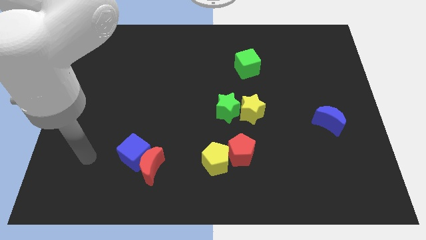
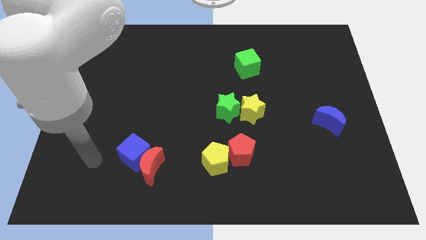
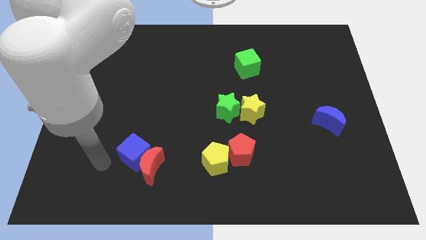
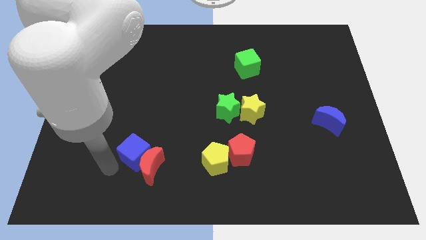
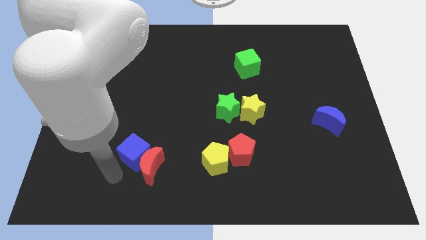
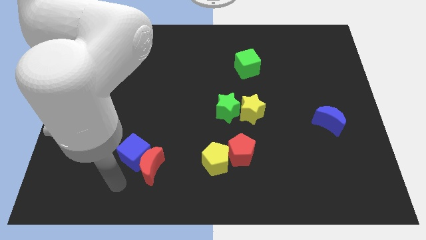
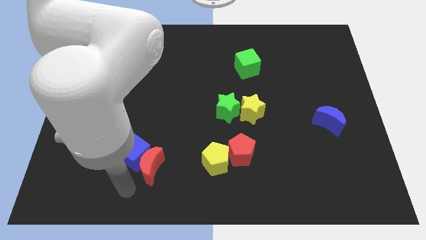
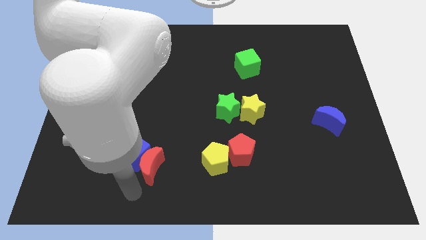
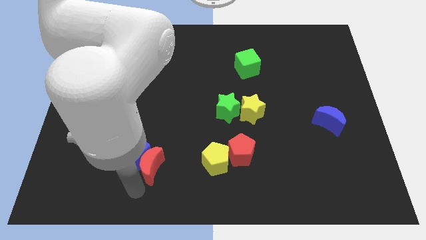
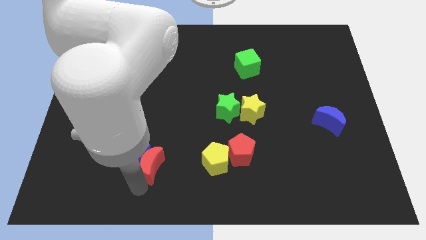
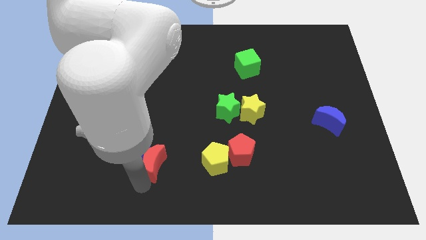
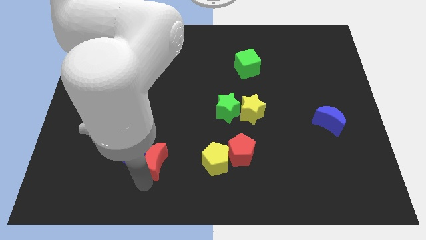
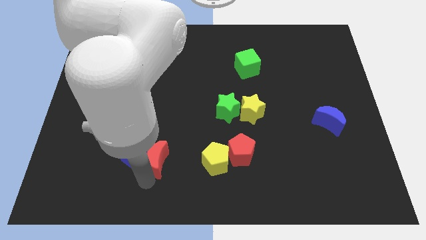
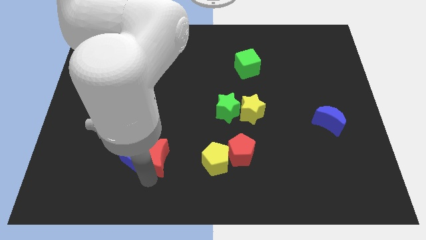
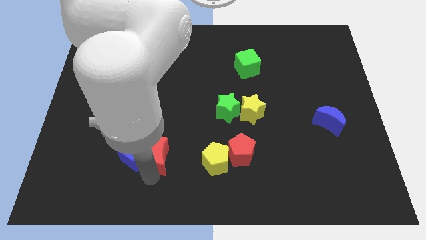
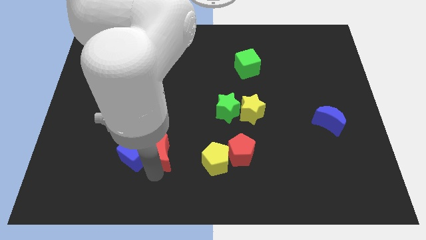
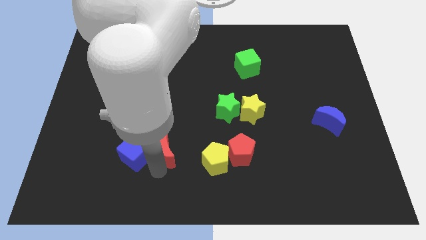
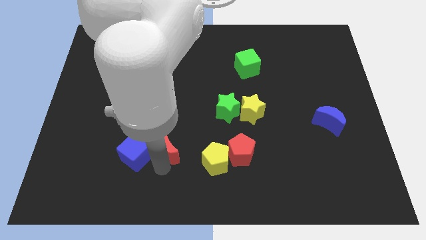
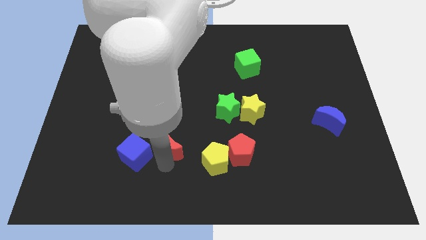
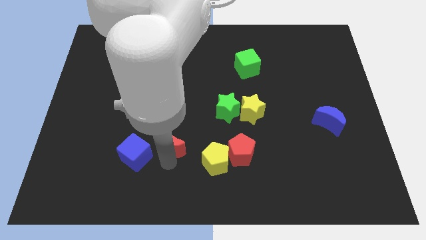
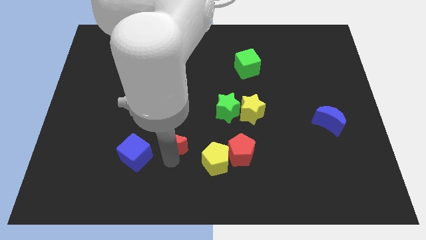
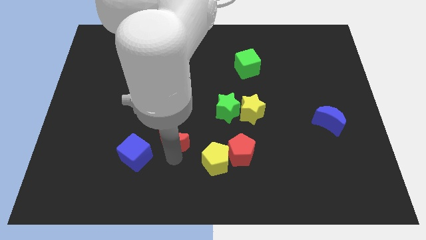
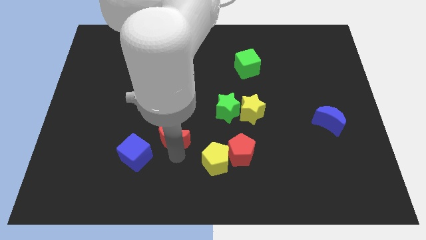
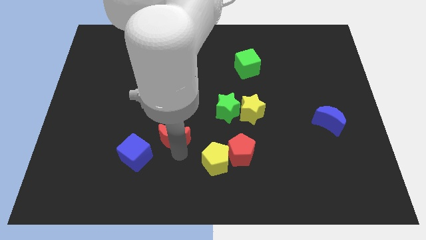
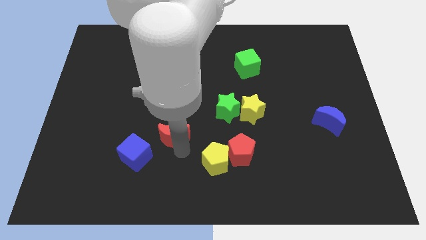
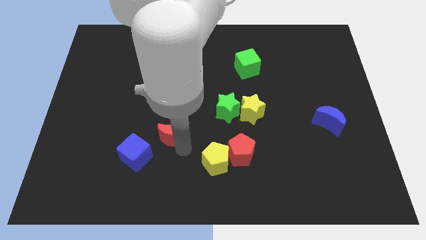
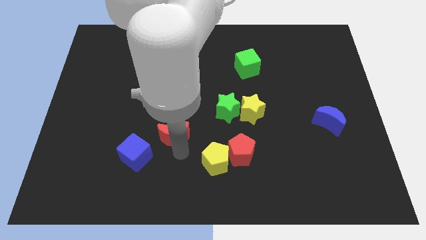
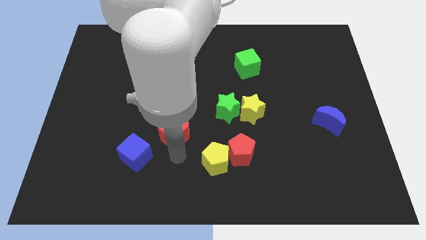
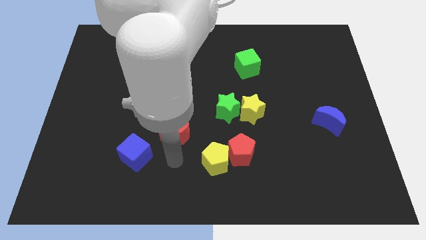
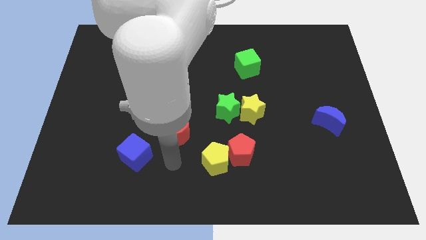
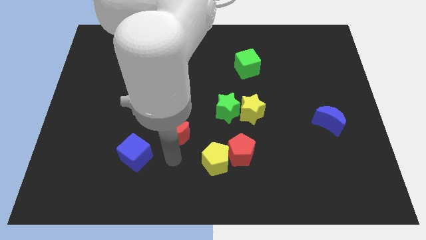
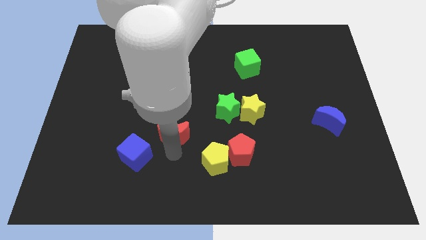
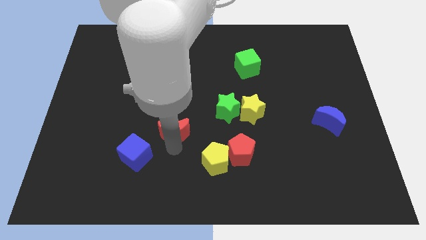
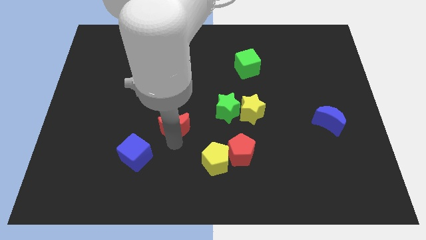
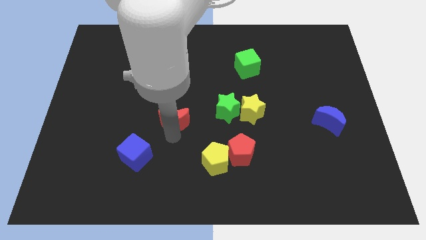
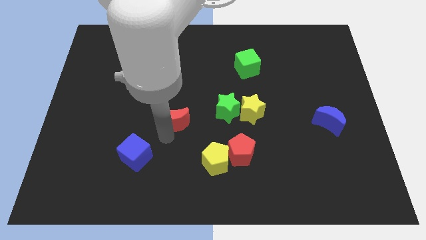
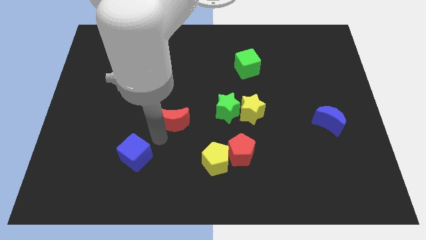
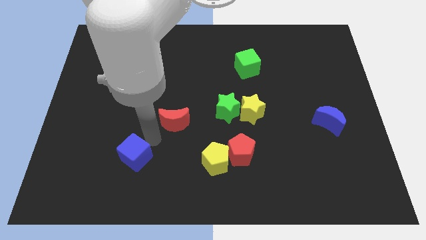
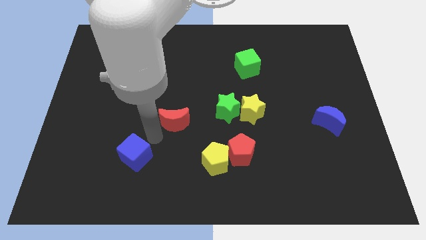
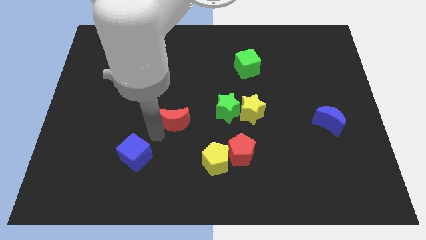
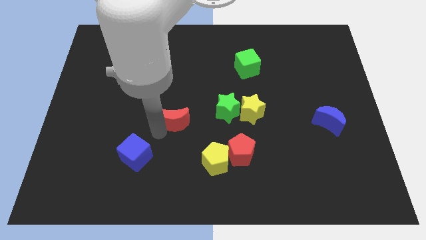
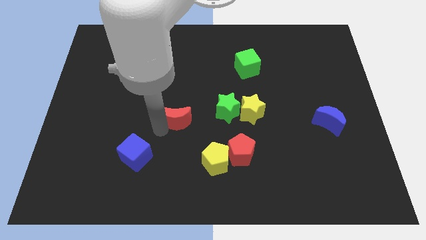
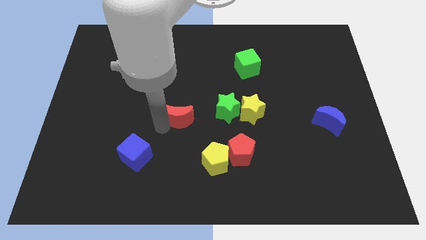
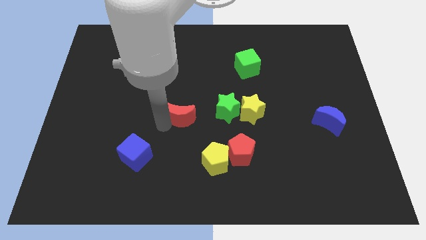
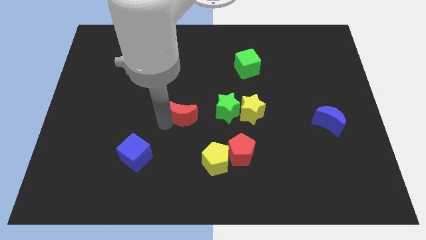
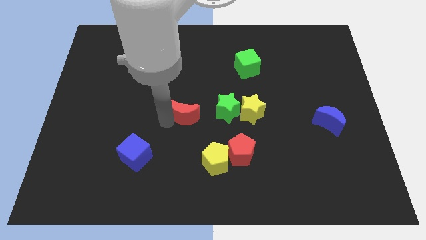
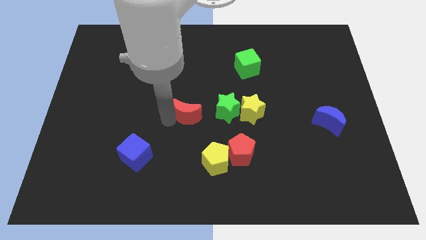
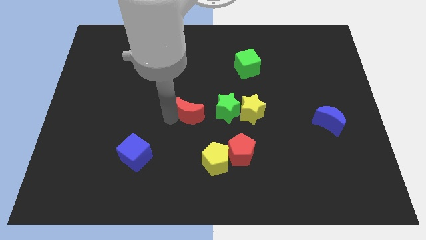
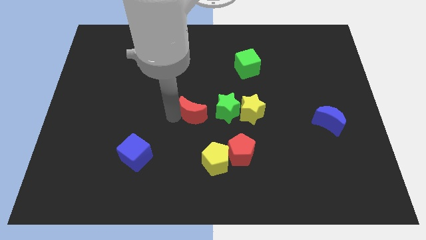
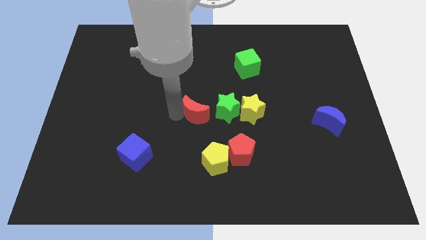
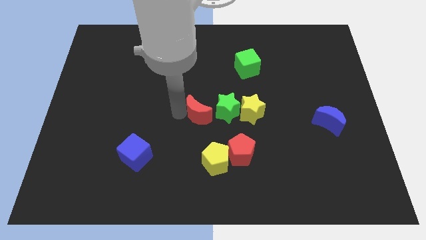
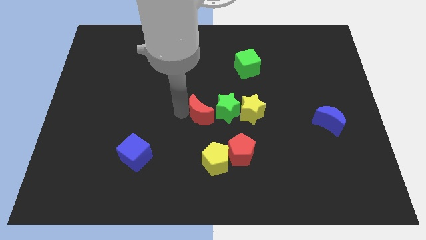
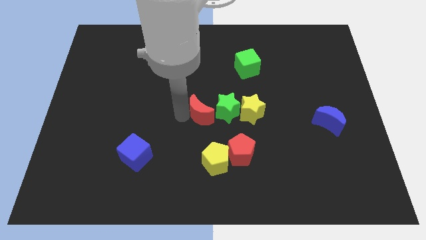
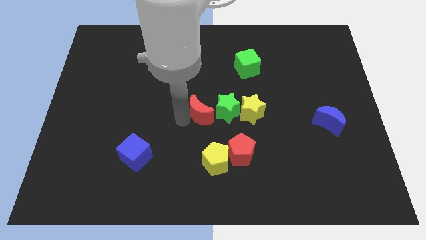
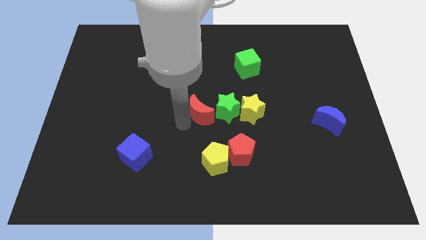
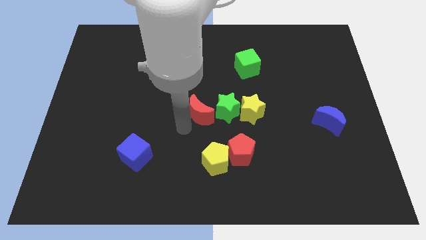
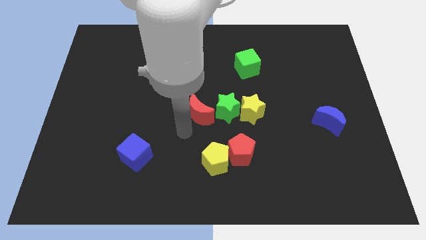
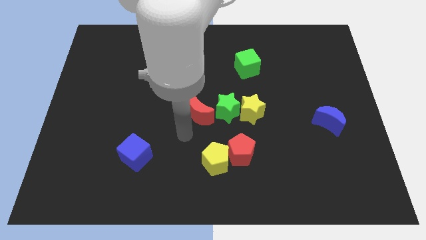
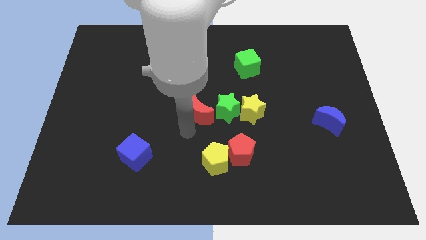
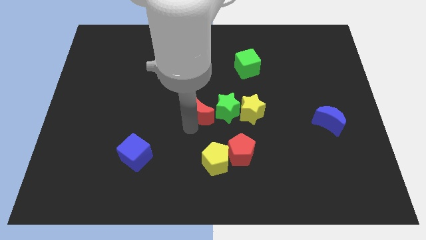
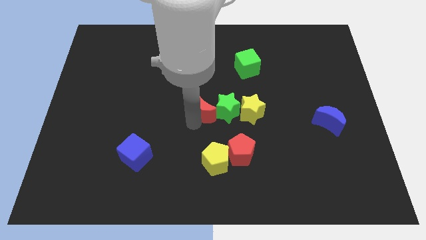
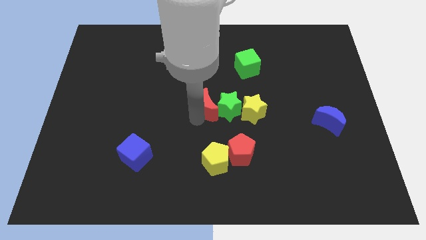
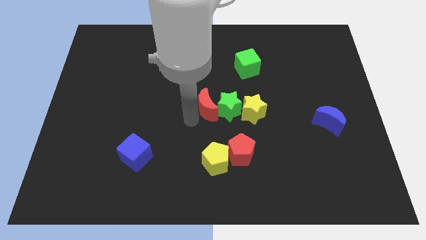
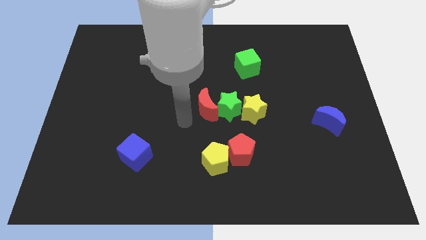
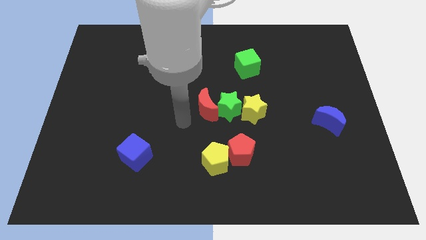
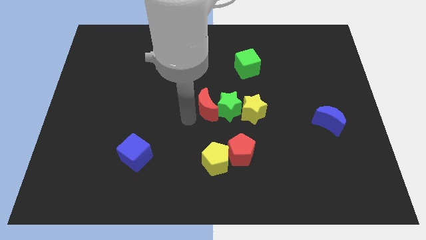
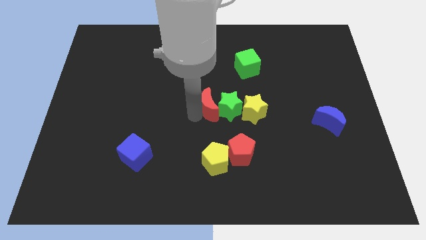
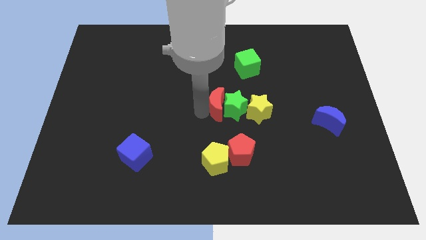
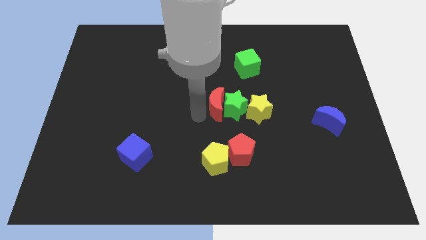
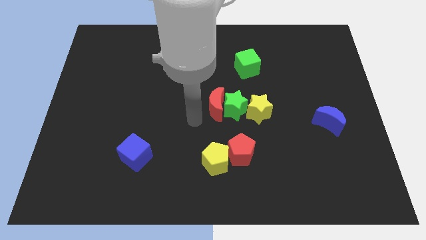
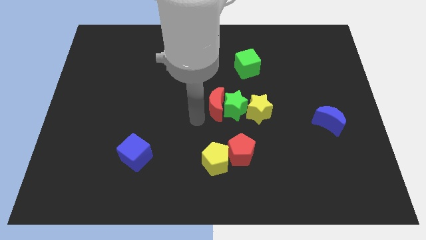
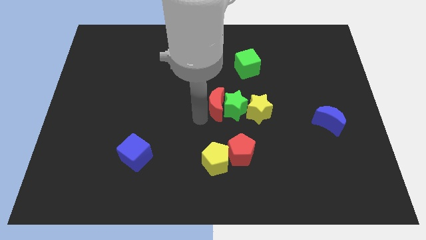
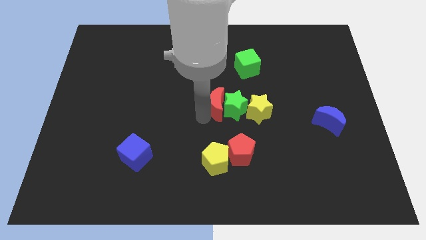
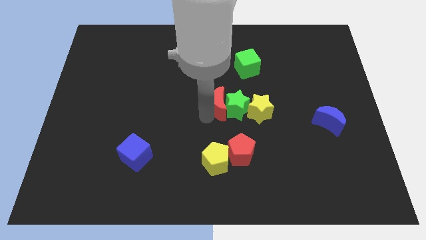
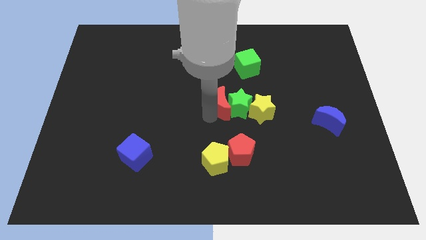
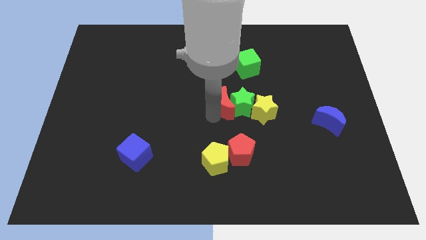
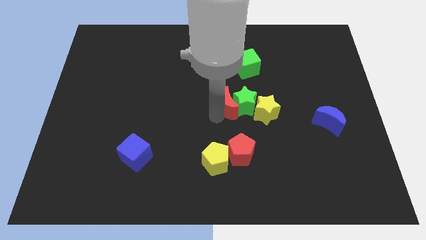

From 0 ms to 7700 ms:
put the red moon diagonally up and to the left of the yellow star
